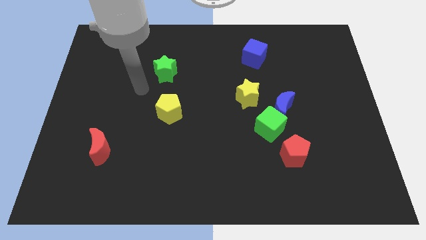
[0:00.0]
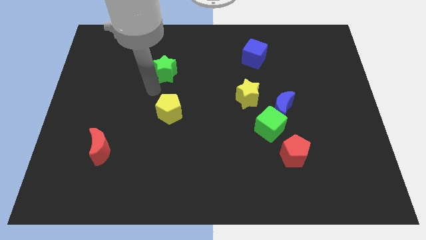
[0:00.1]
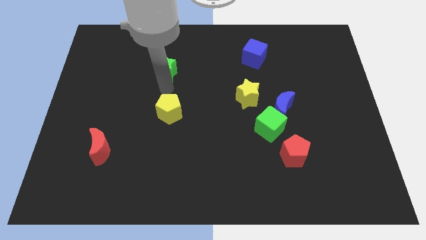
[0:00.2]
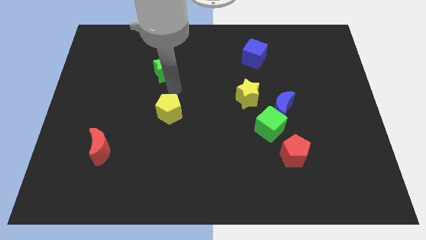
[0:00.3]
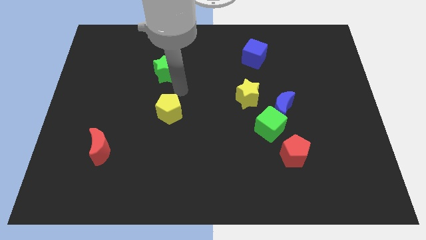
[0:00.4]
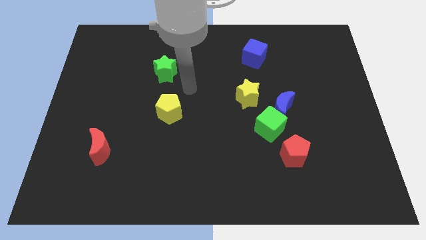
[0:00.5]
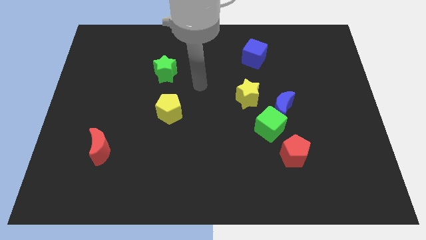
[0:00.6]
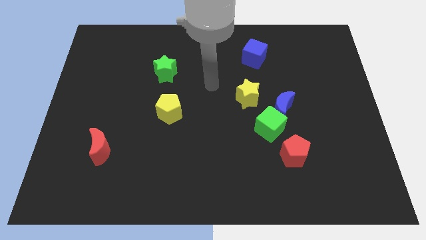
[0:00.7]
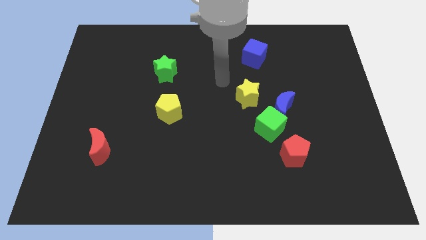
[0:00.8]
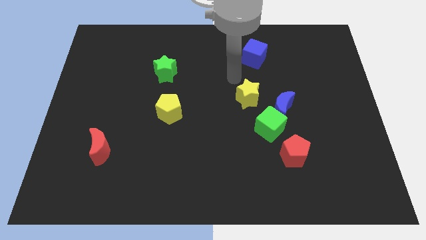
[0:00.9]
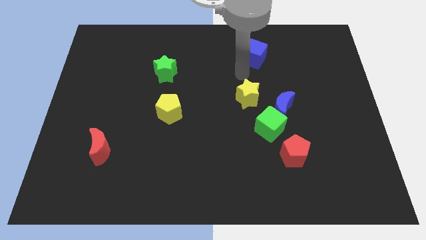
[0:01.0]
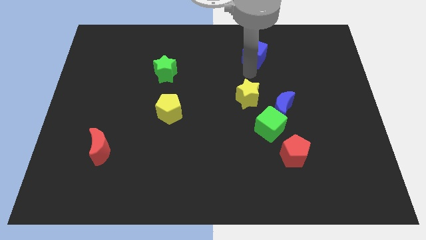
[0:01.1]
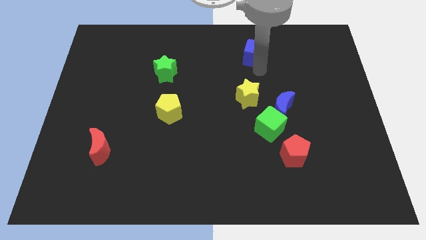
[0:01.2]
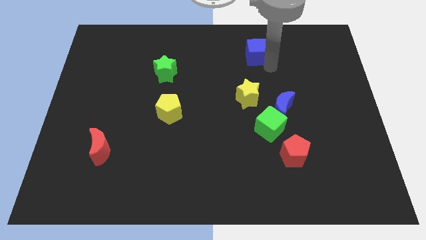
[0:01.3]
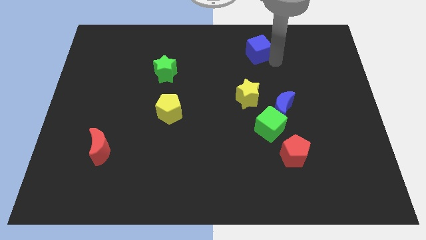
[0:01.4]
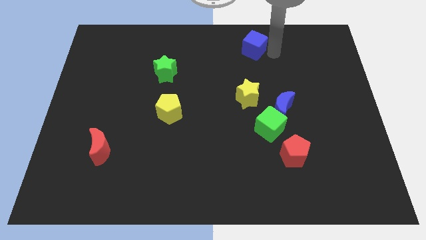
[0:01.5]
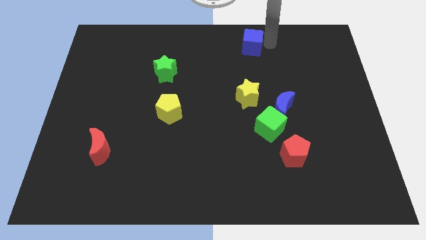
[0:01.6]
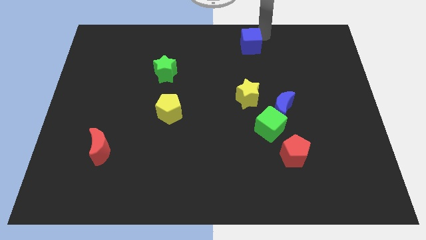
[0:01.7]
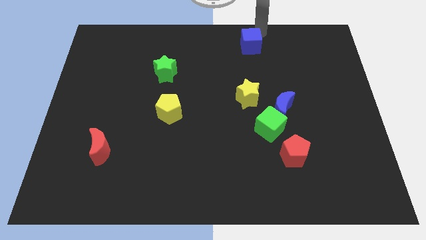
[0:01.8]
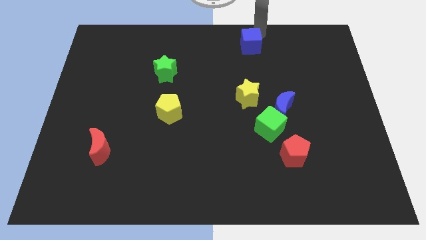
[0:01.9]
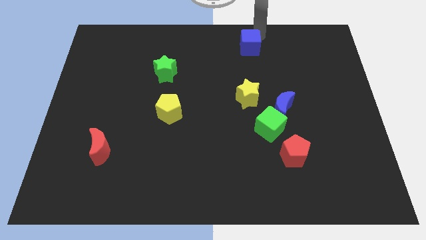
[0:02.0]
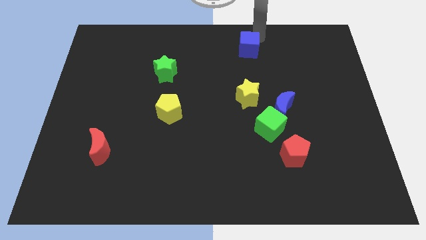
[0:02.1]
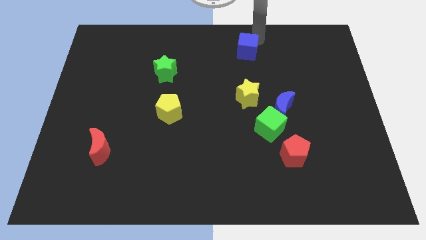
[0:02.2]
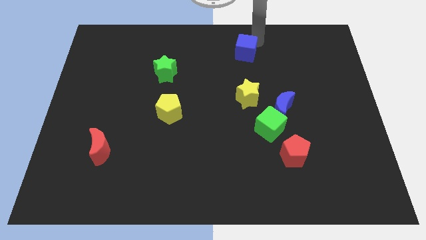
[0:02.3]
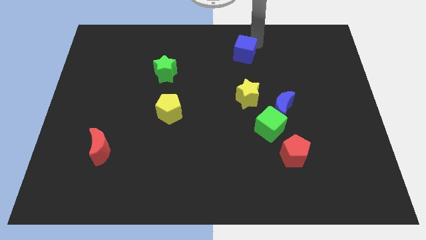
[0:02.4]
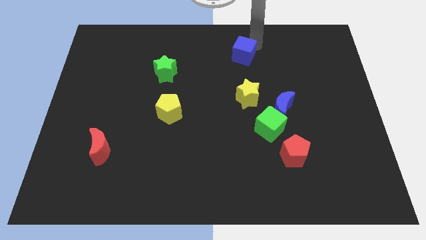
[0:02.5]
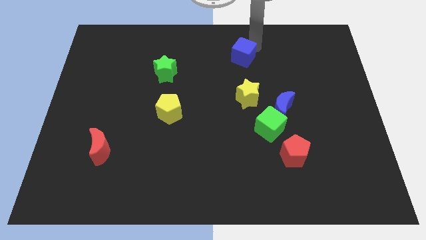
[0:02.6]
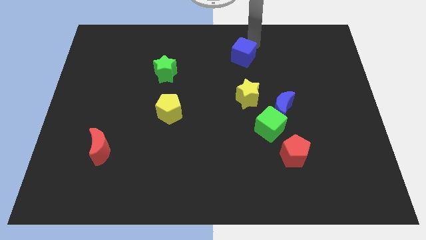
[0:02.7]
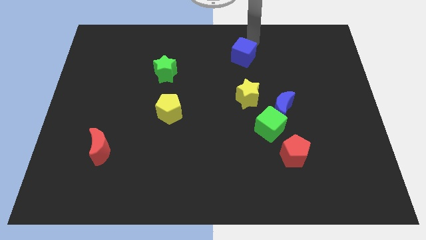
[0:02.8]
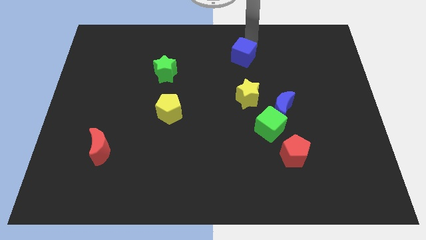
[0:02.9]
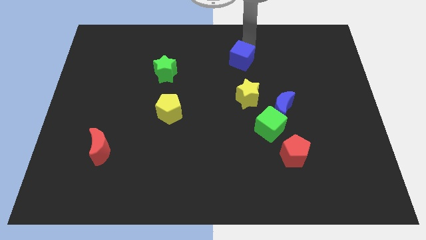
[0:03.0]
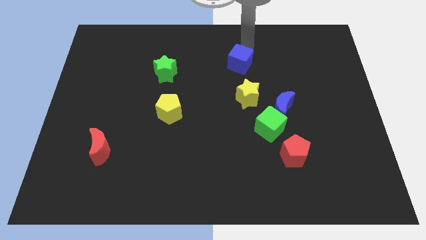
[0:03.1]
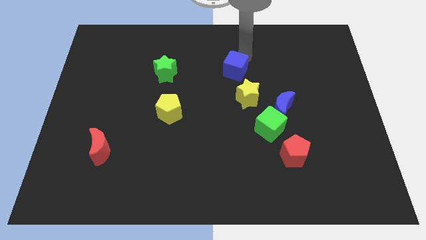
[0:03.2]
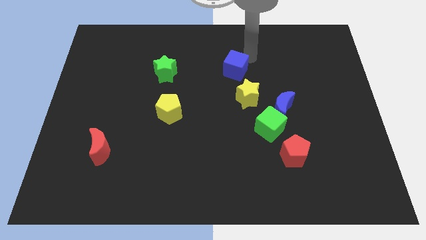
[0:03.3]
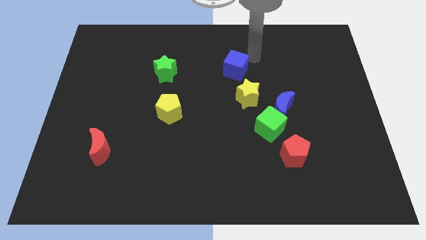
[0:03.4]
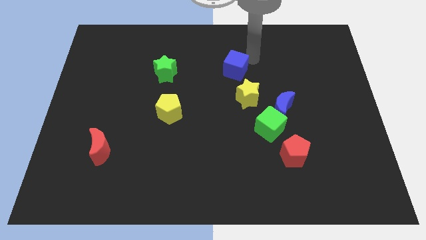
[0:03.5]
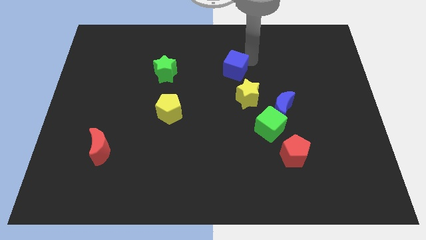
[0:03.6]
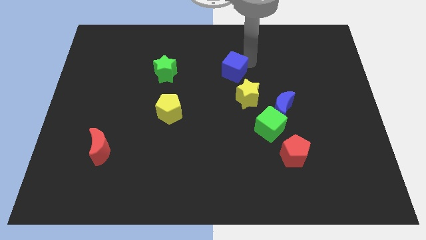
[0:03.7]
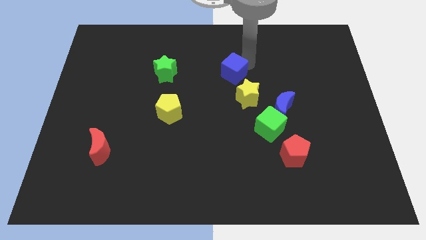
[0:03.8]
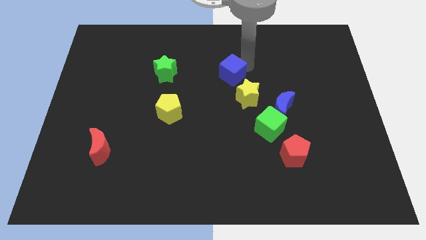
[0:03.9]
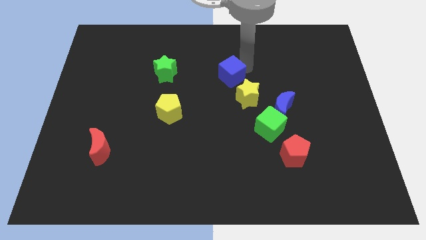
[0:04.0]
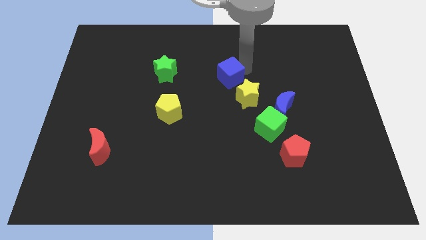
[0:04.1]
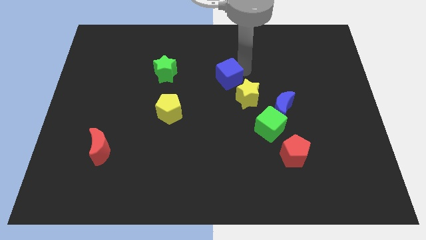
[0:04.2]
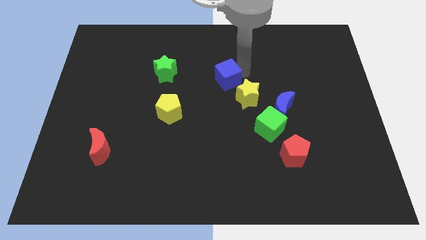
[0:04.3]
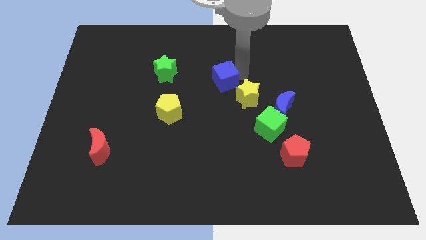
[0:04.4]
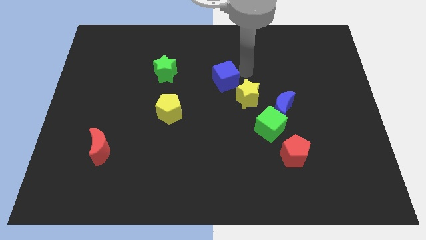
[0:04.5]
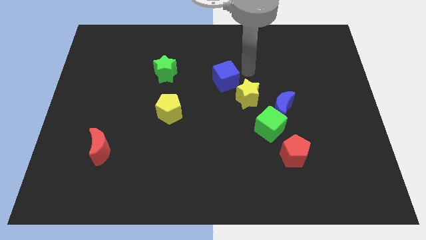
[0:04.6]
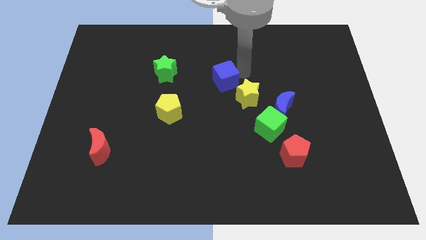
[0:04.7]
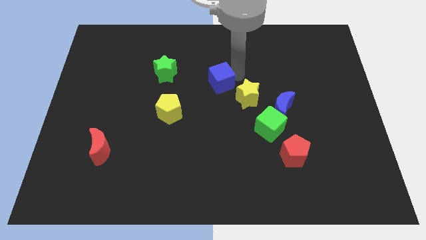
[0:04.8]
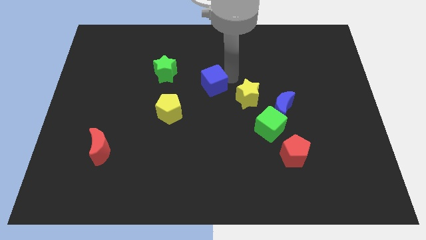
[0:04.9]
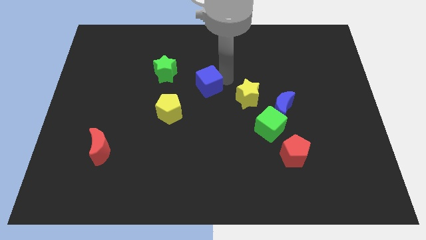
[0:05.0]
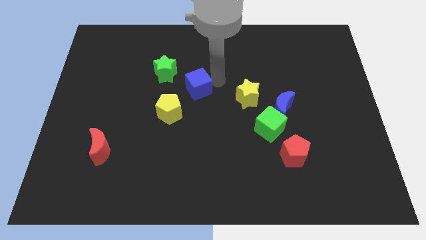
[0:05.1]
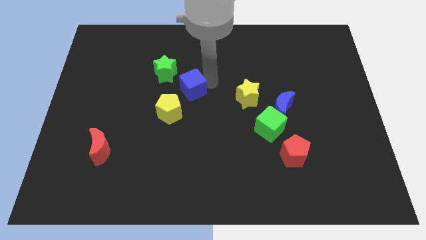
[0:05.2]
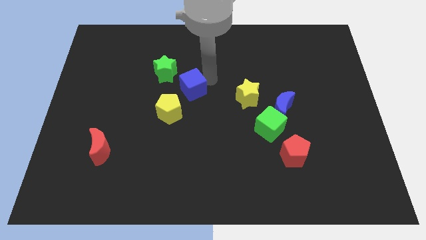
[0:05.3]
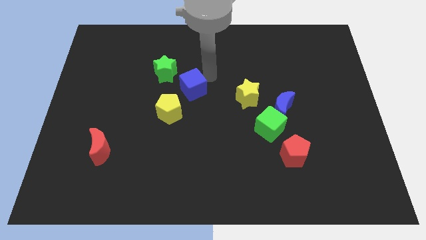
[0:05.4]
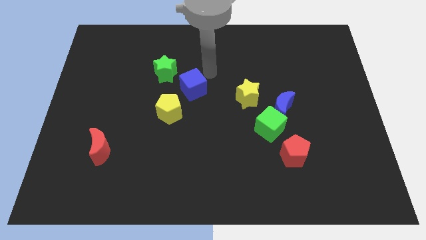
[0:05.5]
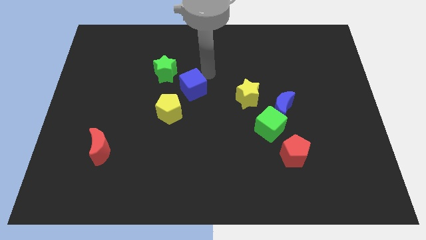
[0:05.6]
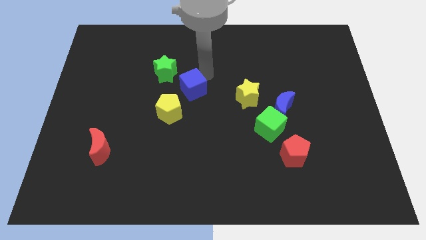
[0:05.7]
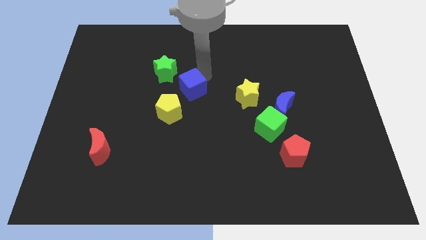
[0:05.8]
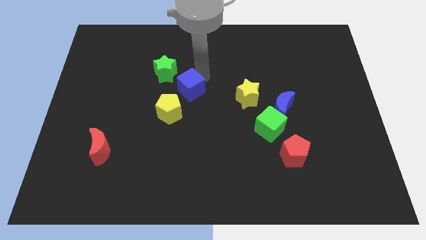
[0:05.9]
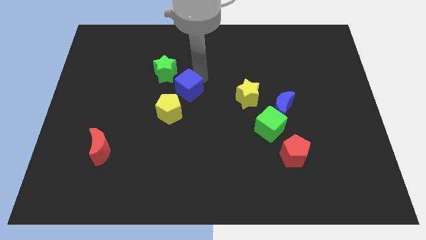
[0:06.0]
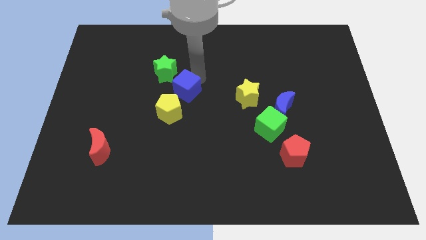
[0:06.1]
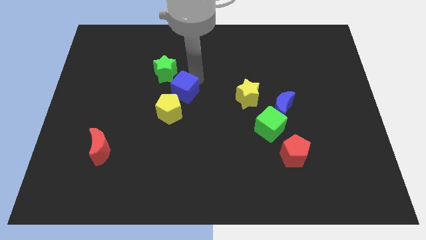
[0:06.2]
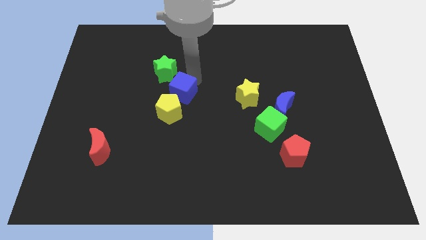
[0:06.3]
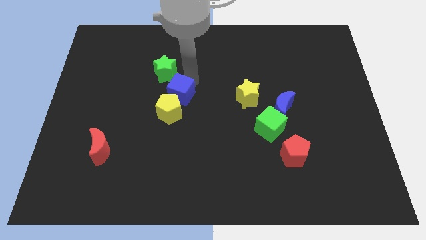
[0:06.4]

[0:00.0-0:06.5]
push the blue cube next to the yellow pentagon
